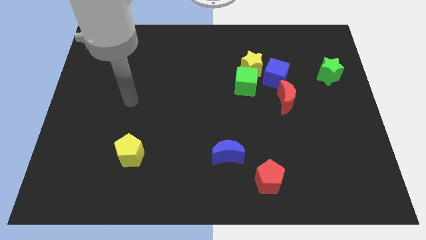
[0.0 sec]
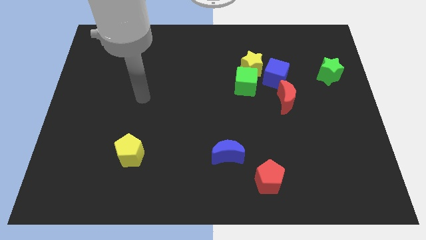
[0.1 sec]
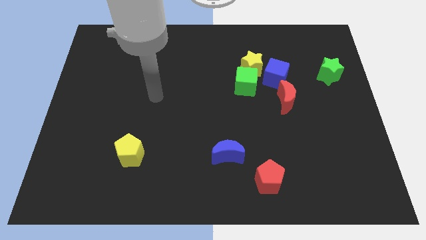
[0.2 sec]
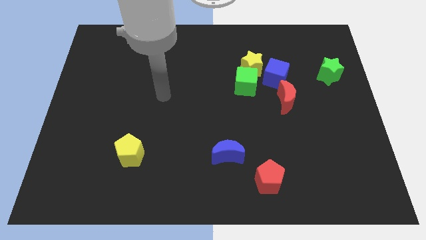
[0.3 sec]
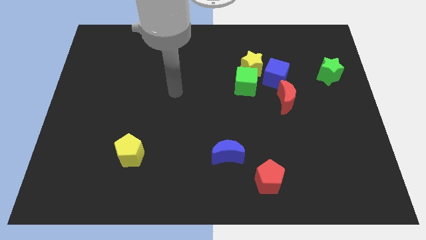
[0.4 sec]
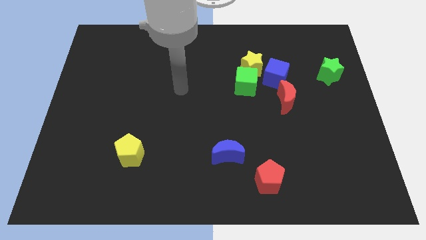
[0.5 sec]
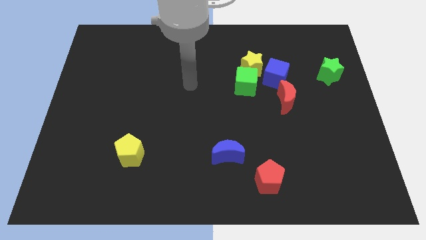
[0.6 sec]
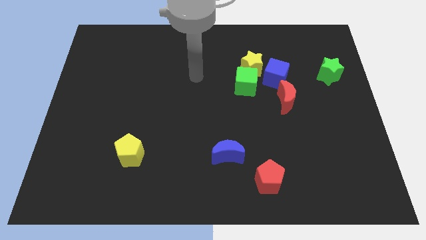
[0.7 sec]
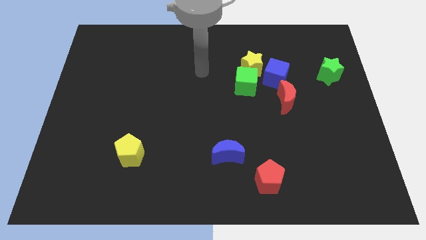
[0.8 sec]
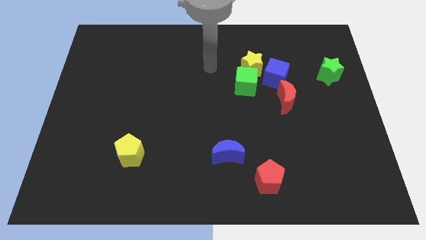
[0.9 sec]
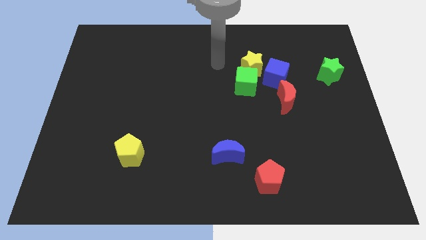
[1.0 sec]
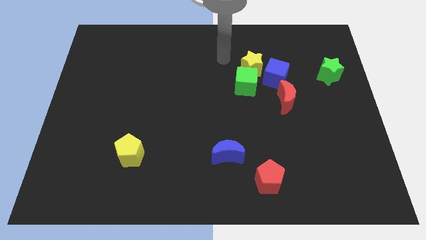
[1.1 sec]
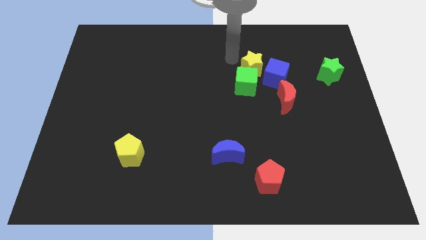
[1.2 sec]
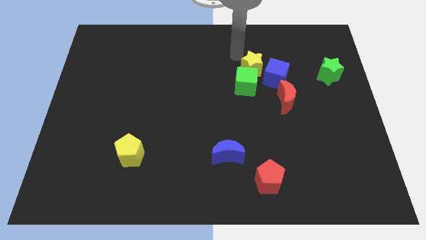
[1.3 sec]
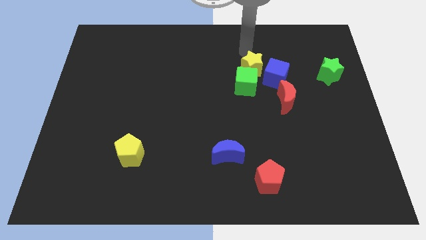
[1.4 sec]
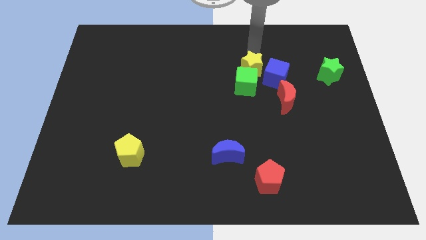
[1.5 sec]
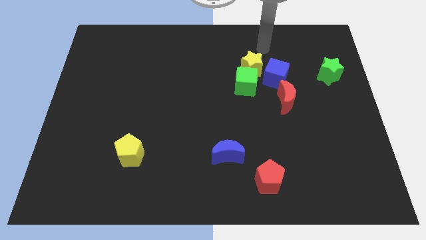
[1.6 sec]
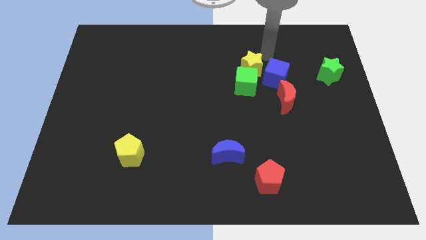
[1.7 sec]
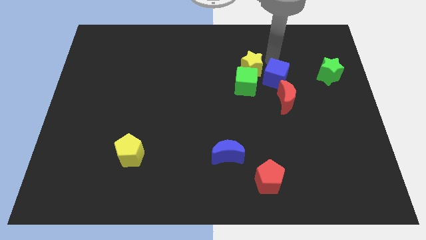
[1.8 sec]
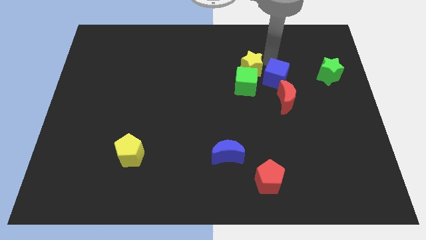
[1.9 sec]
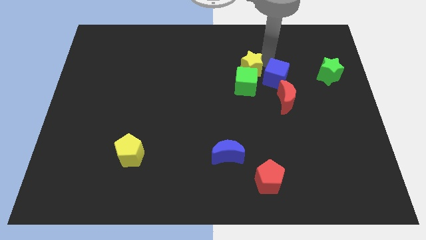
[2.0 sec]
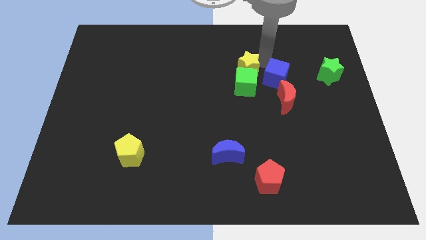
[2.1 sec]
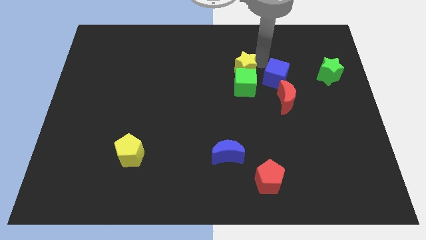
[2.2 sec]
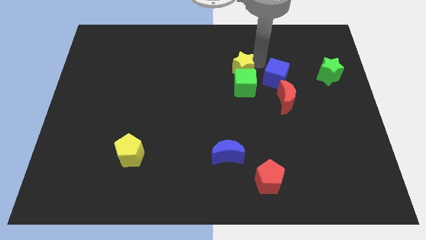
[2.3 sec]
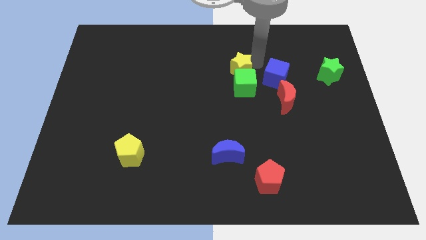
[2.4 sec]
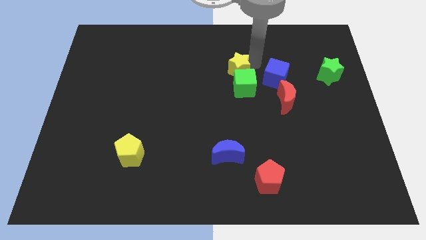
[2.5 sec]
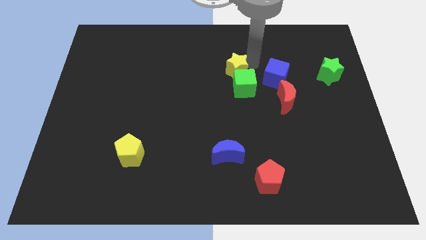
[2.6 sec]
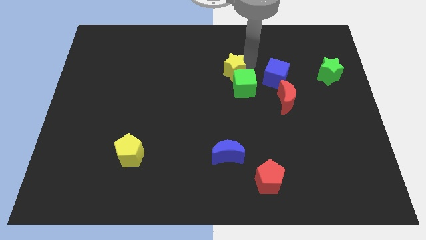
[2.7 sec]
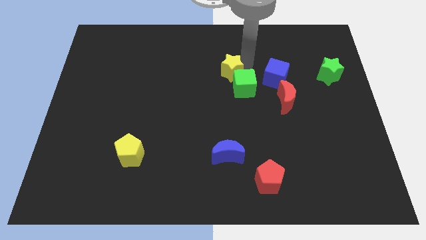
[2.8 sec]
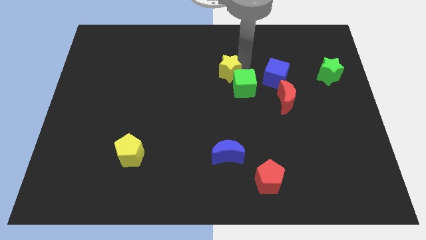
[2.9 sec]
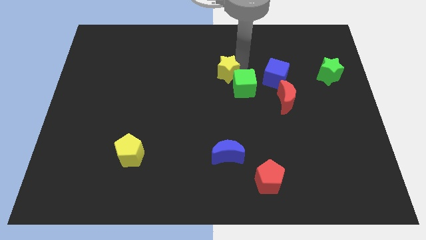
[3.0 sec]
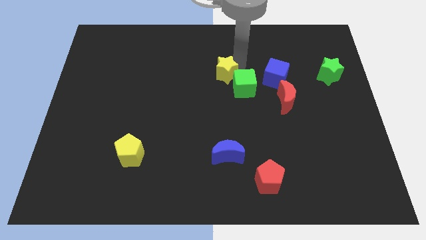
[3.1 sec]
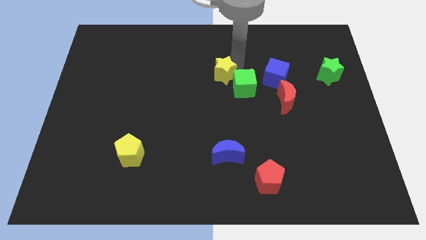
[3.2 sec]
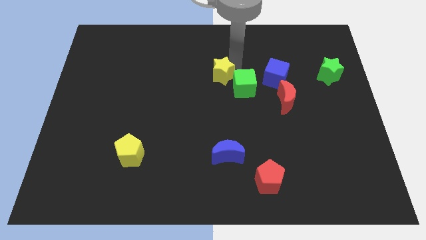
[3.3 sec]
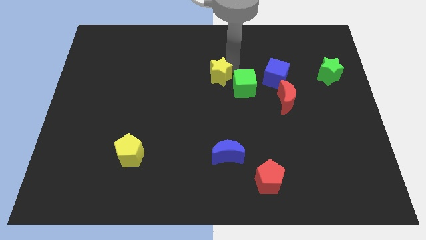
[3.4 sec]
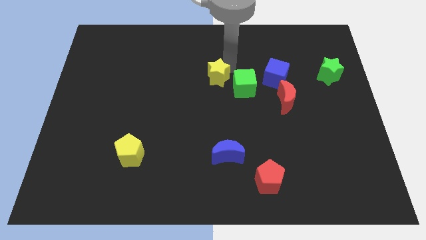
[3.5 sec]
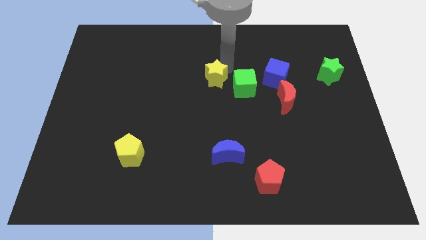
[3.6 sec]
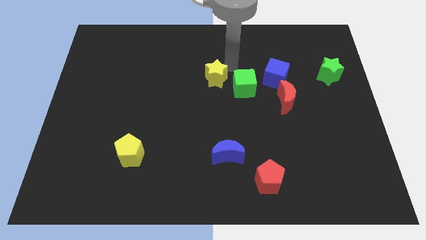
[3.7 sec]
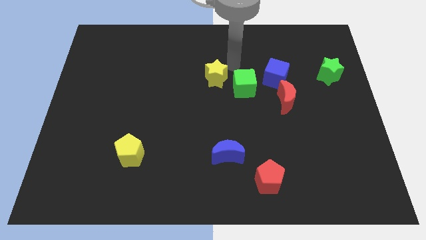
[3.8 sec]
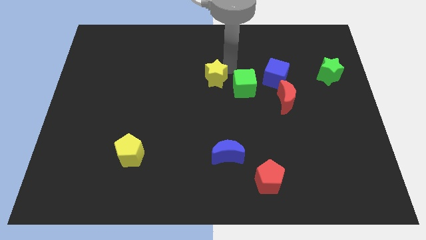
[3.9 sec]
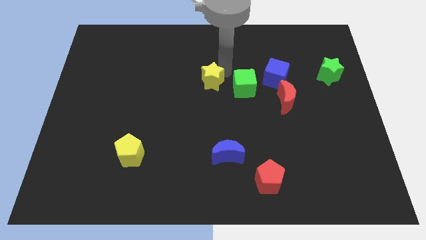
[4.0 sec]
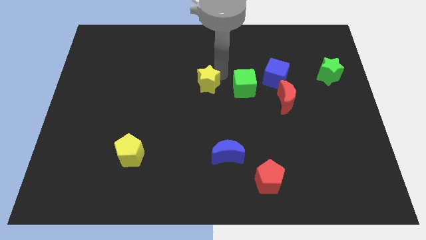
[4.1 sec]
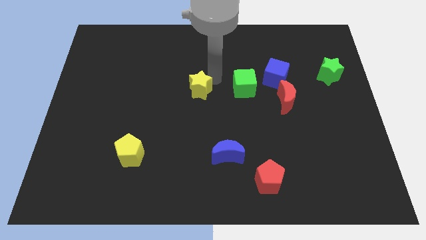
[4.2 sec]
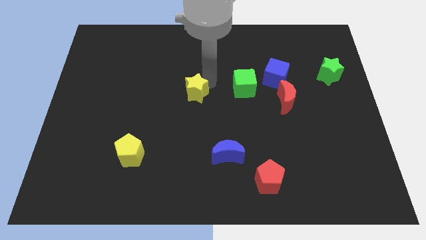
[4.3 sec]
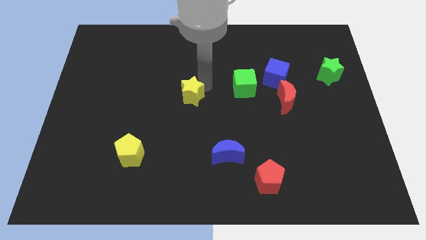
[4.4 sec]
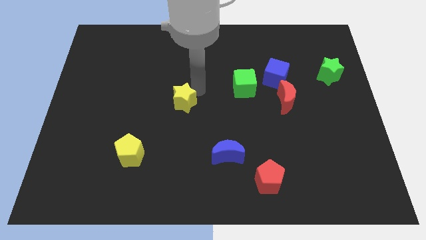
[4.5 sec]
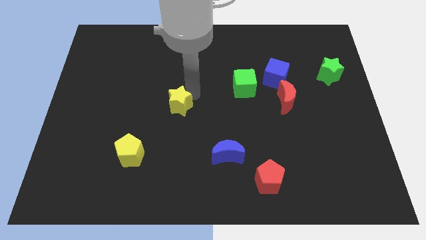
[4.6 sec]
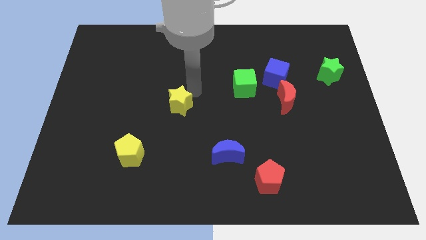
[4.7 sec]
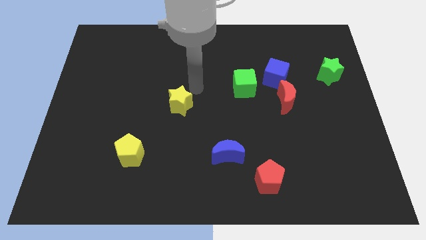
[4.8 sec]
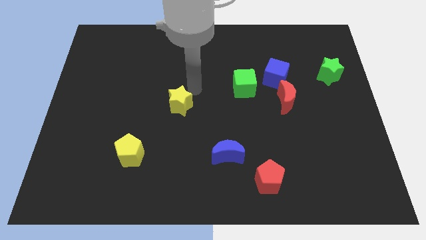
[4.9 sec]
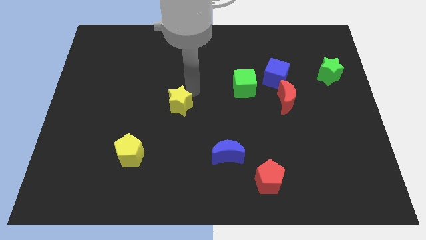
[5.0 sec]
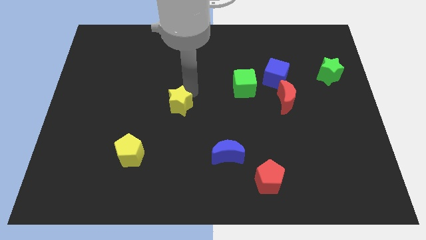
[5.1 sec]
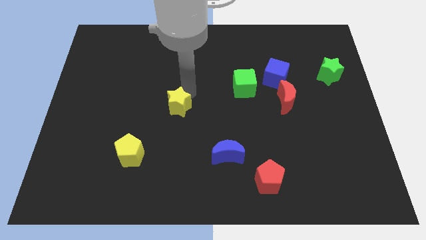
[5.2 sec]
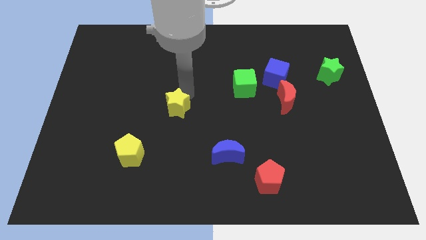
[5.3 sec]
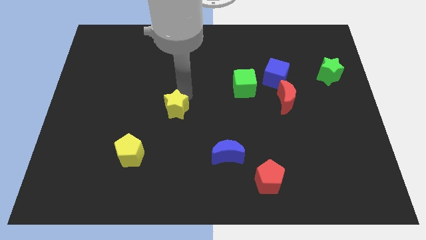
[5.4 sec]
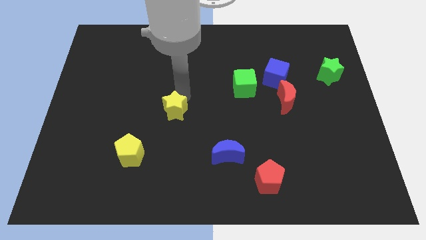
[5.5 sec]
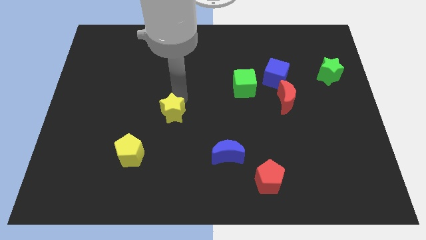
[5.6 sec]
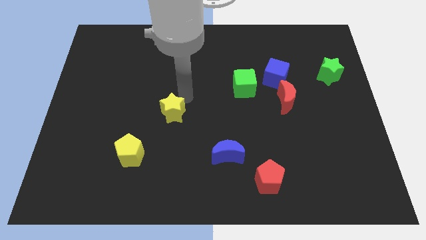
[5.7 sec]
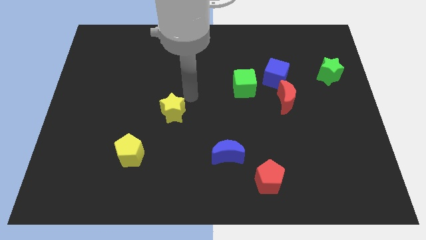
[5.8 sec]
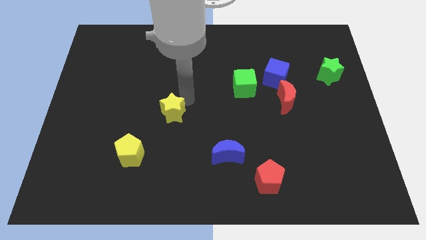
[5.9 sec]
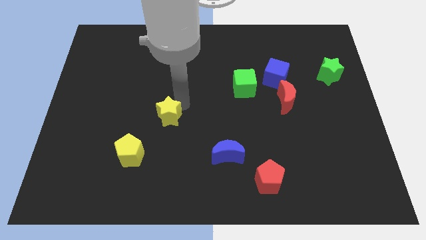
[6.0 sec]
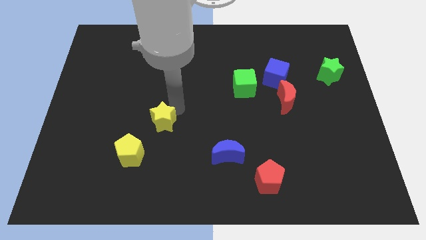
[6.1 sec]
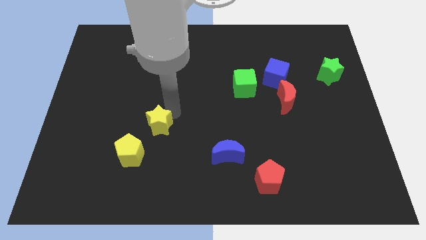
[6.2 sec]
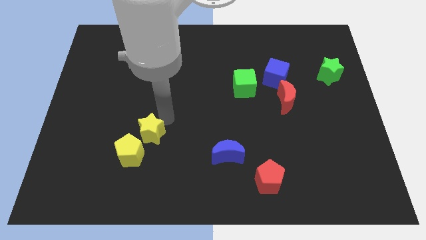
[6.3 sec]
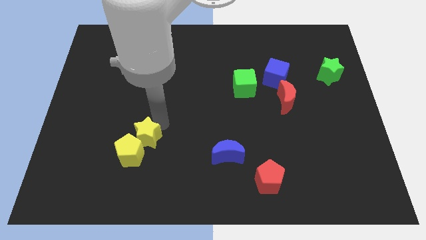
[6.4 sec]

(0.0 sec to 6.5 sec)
move the yellow star towards the yellow pentagon

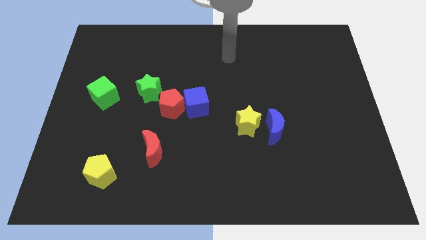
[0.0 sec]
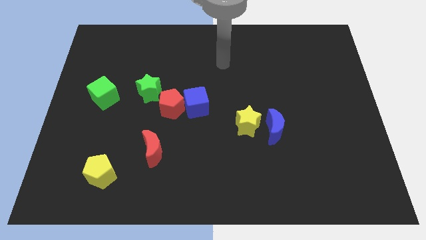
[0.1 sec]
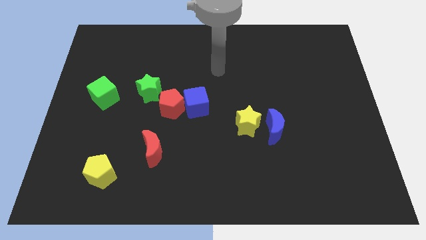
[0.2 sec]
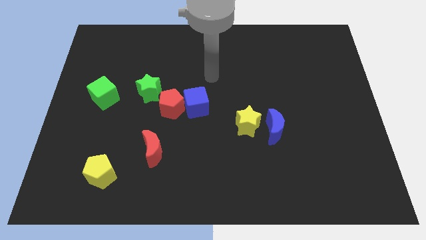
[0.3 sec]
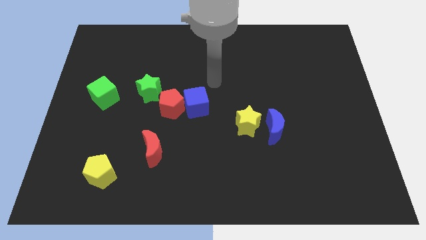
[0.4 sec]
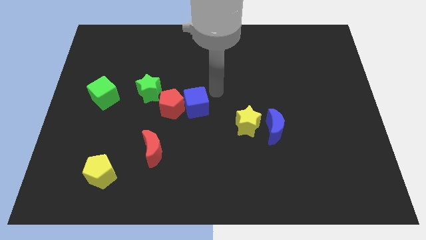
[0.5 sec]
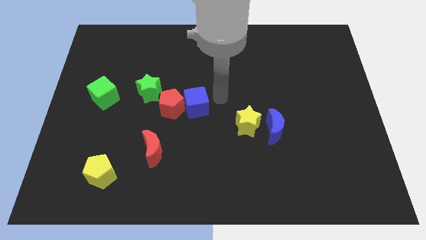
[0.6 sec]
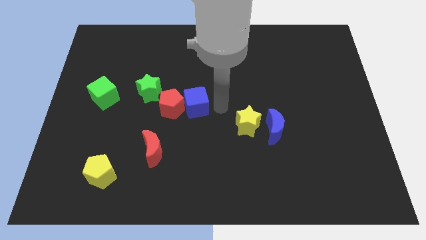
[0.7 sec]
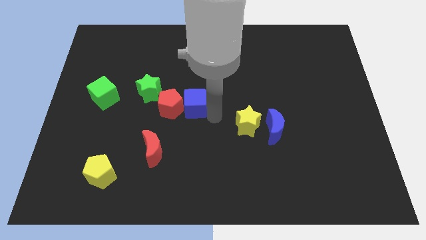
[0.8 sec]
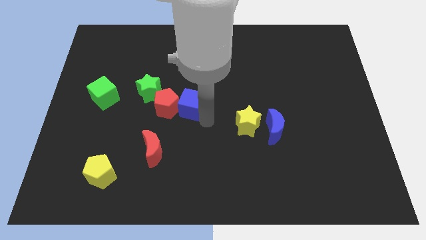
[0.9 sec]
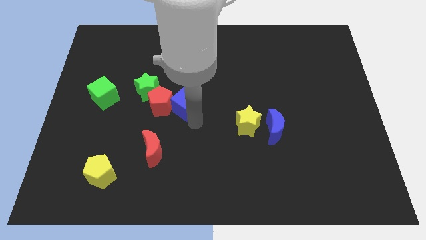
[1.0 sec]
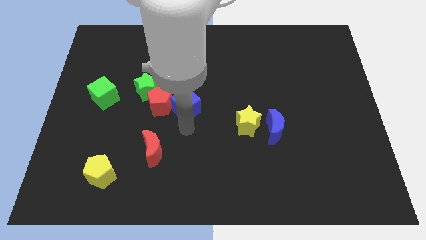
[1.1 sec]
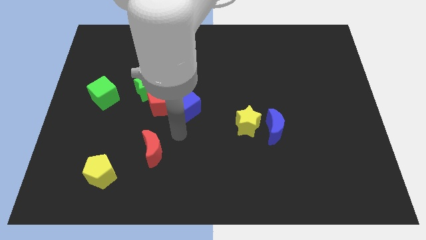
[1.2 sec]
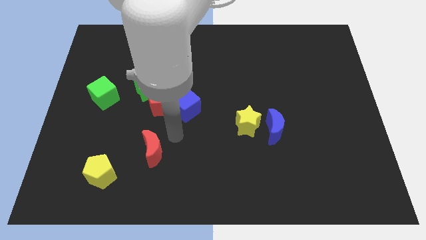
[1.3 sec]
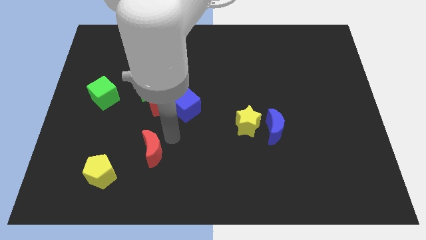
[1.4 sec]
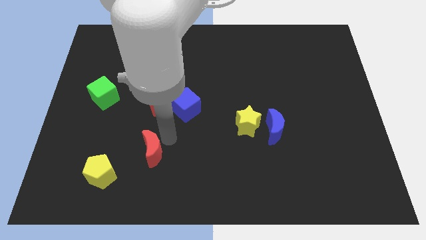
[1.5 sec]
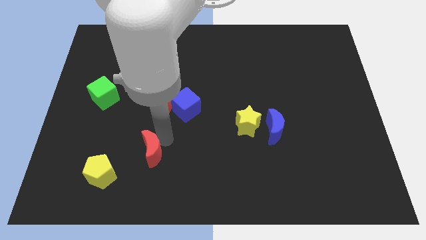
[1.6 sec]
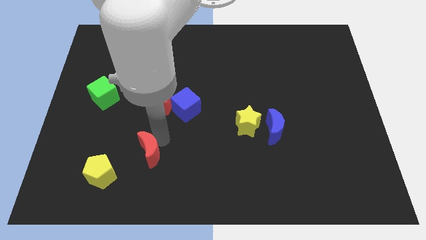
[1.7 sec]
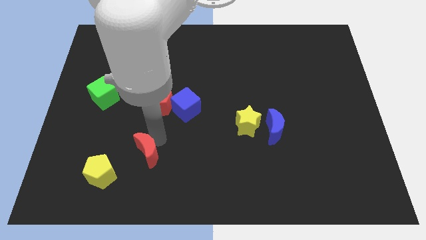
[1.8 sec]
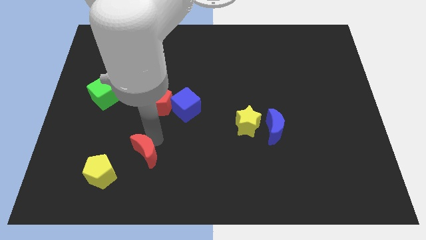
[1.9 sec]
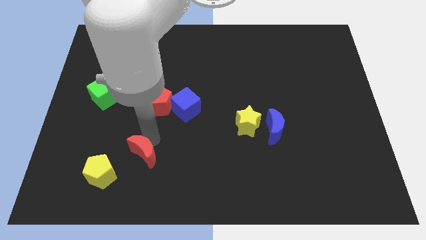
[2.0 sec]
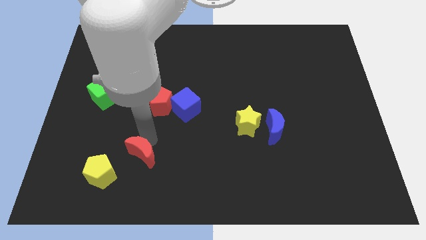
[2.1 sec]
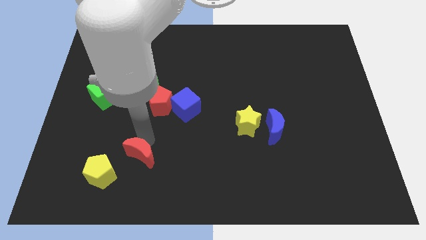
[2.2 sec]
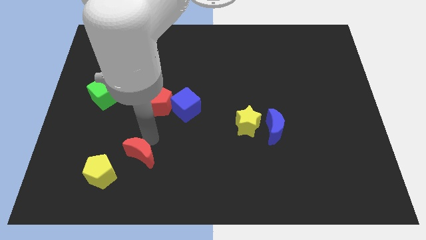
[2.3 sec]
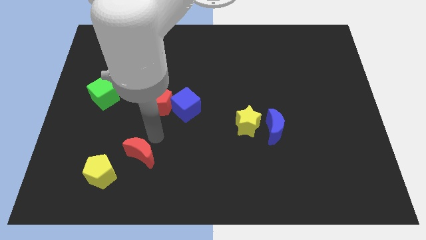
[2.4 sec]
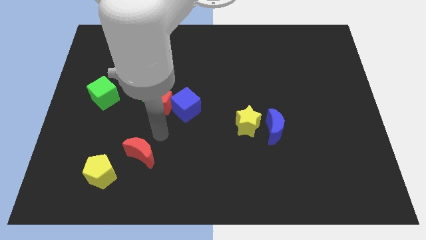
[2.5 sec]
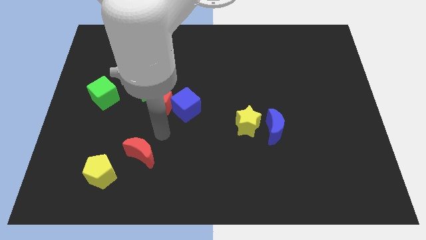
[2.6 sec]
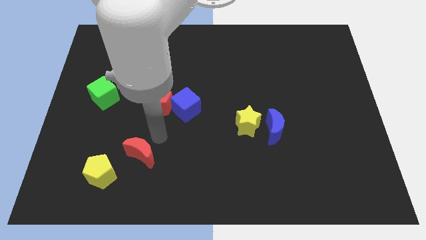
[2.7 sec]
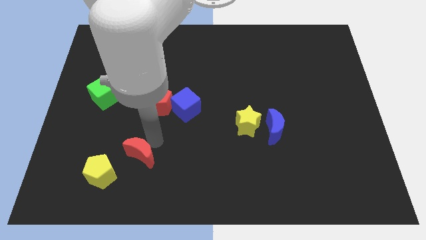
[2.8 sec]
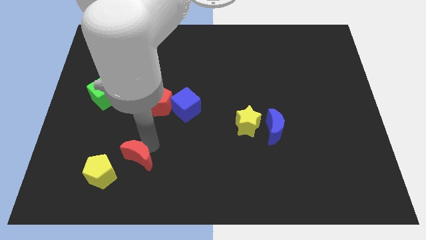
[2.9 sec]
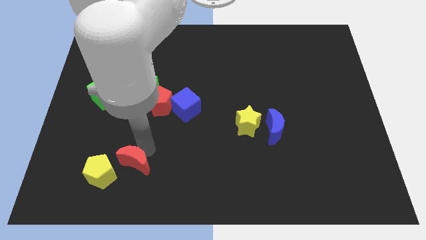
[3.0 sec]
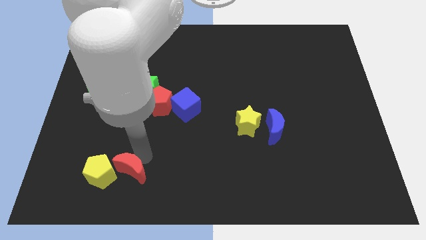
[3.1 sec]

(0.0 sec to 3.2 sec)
put the red moon next to the yellow pentagon
